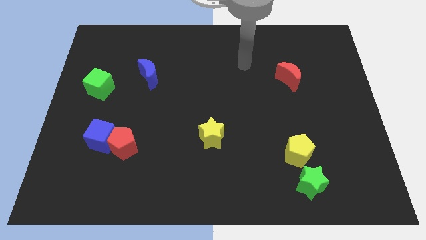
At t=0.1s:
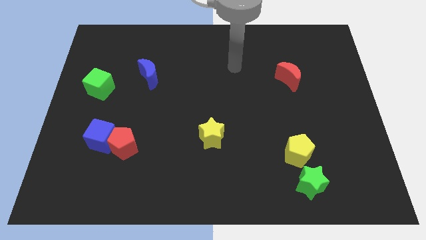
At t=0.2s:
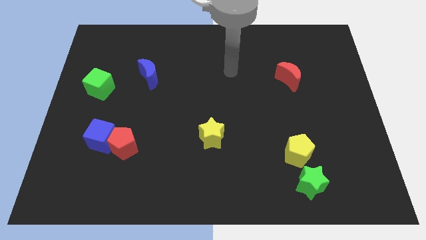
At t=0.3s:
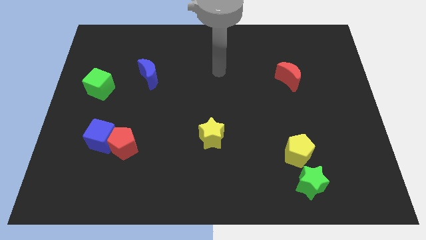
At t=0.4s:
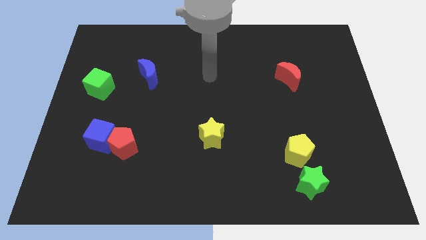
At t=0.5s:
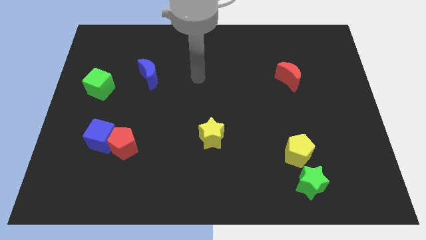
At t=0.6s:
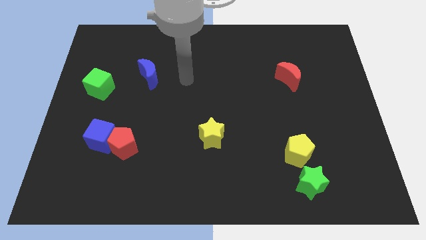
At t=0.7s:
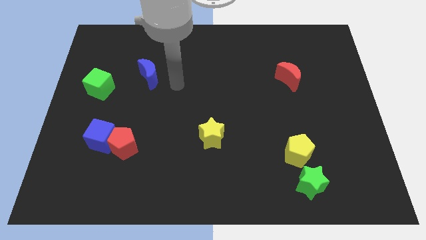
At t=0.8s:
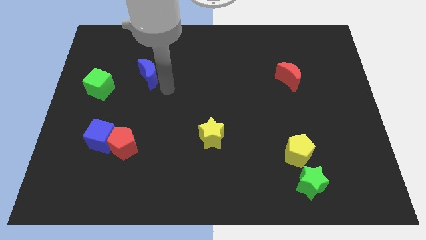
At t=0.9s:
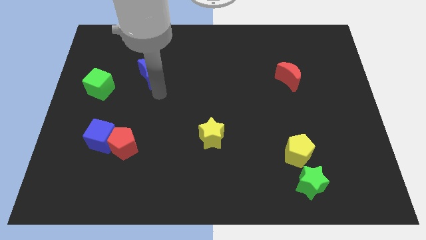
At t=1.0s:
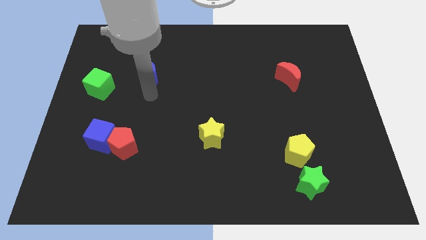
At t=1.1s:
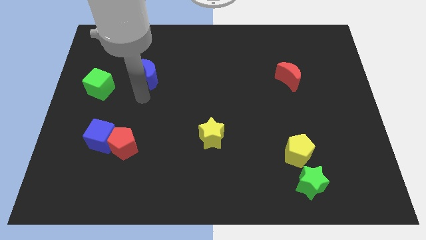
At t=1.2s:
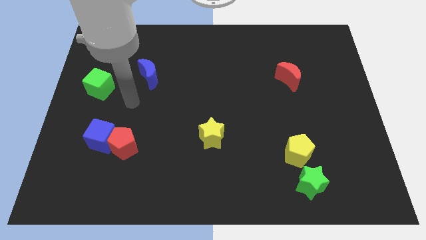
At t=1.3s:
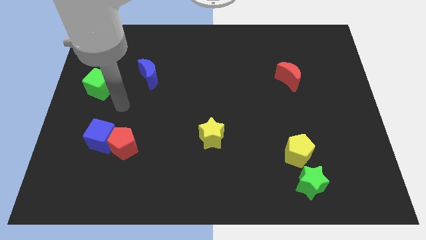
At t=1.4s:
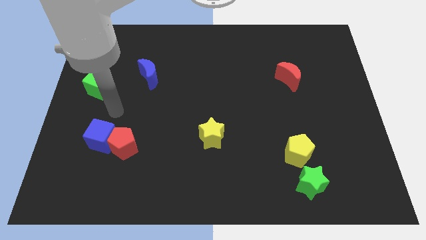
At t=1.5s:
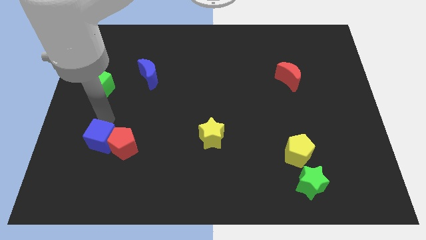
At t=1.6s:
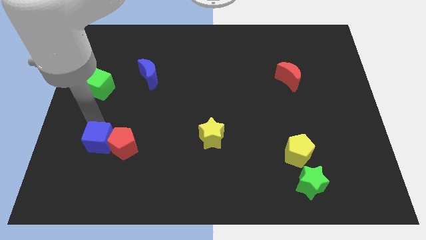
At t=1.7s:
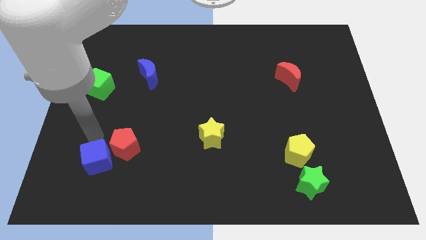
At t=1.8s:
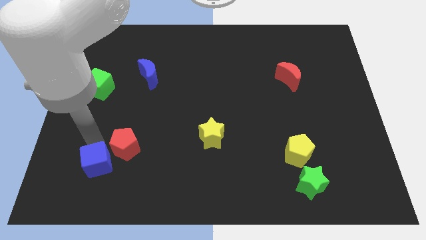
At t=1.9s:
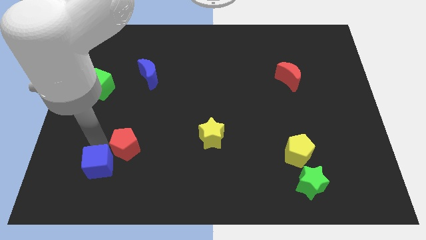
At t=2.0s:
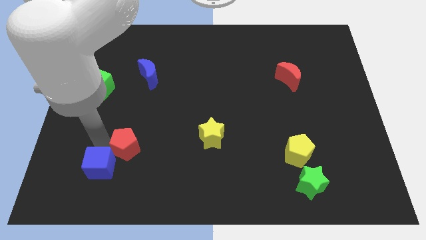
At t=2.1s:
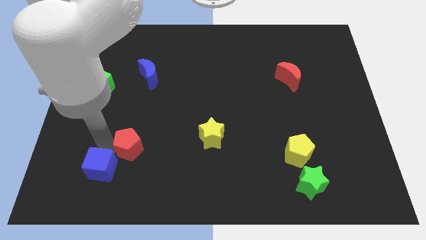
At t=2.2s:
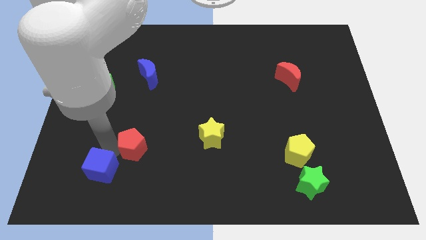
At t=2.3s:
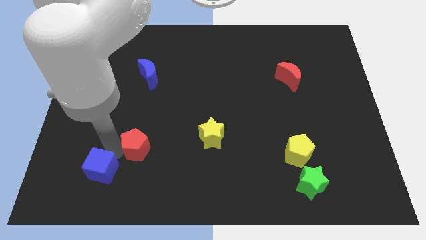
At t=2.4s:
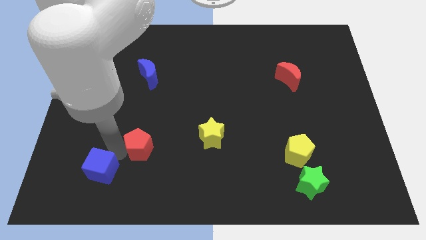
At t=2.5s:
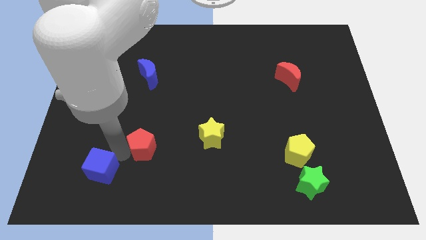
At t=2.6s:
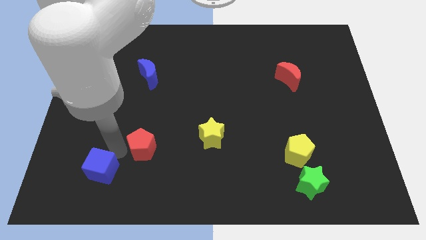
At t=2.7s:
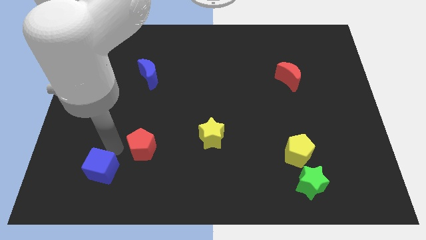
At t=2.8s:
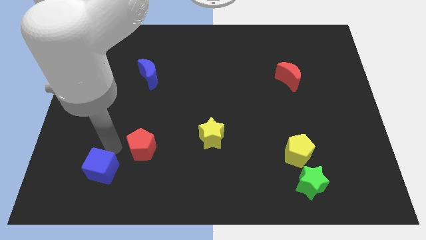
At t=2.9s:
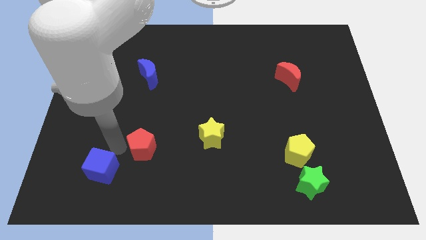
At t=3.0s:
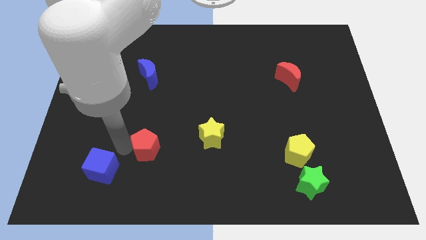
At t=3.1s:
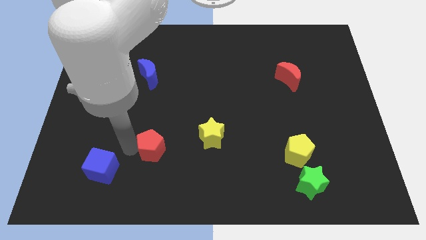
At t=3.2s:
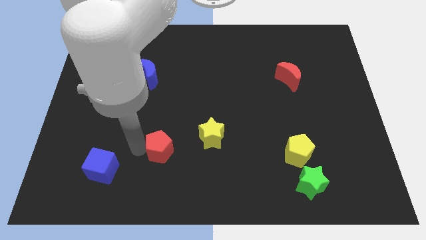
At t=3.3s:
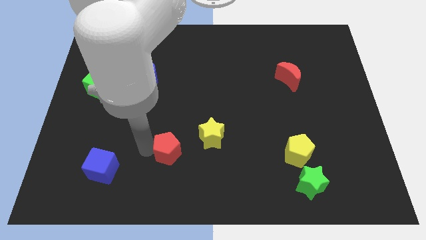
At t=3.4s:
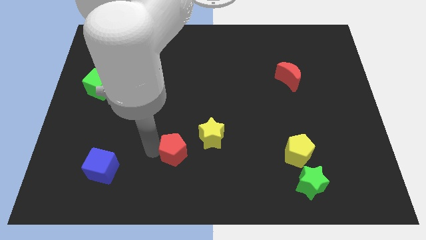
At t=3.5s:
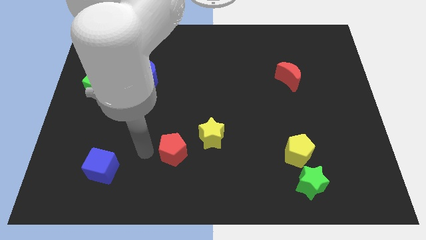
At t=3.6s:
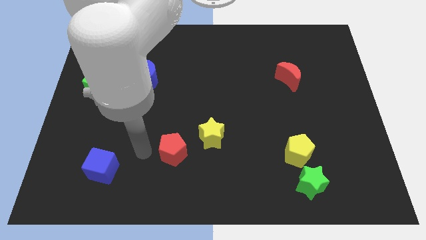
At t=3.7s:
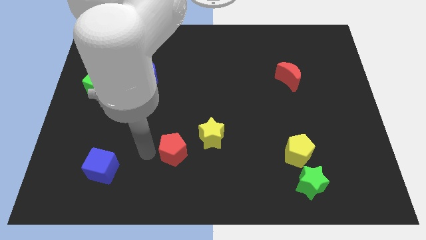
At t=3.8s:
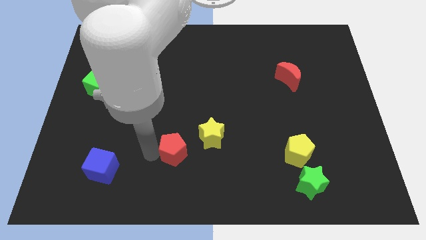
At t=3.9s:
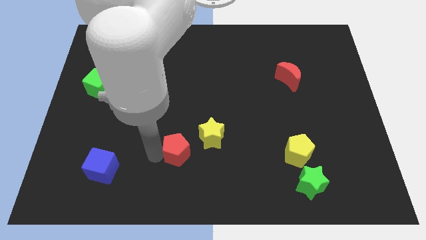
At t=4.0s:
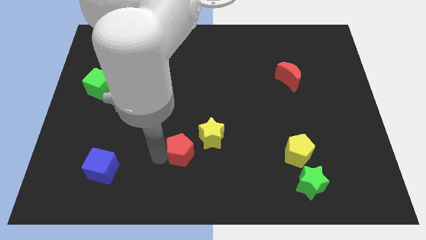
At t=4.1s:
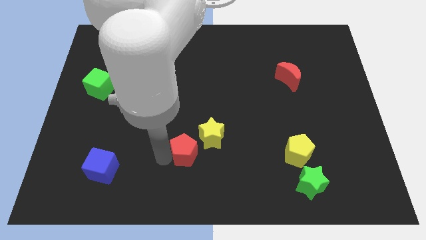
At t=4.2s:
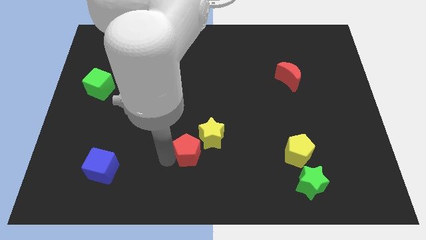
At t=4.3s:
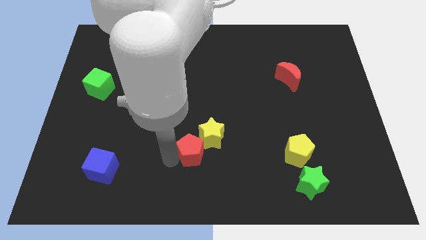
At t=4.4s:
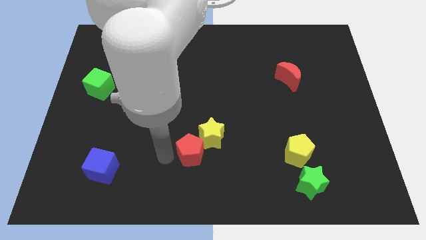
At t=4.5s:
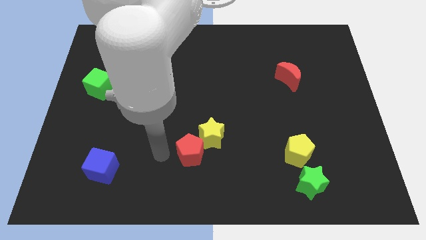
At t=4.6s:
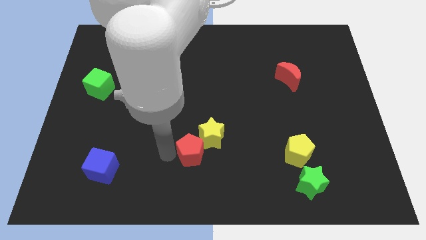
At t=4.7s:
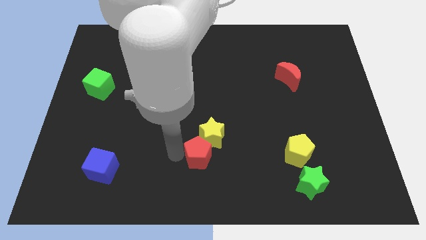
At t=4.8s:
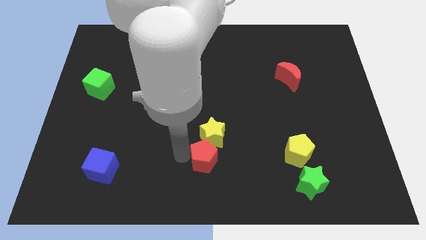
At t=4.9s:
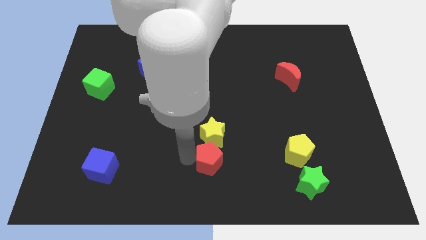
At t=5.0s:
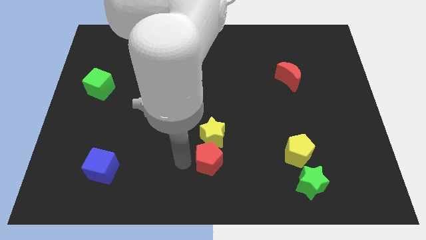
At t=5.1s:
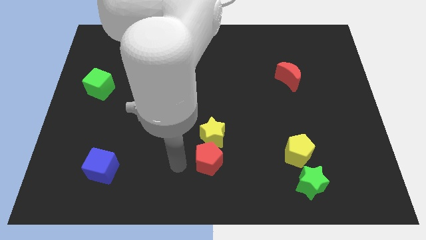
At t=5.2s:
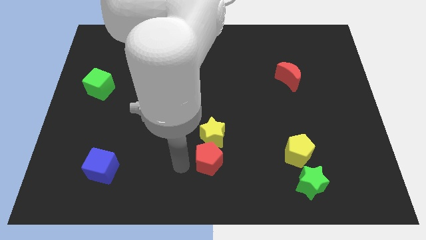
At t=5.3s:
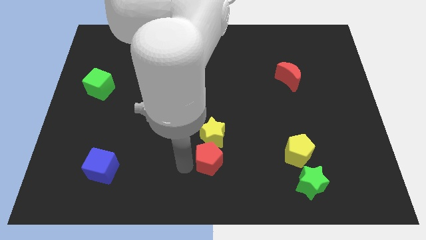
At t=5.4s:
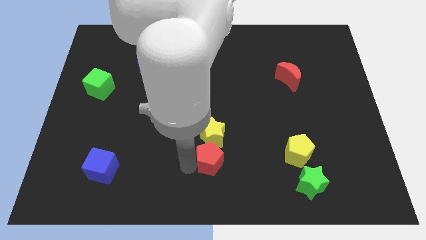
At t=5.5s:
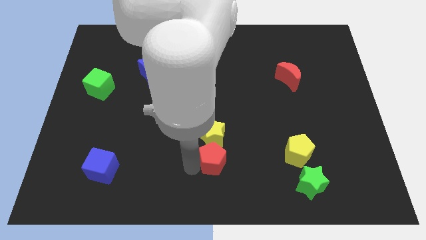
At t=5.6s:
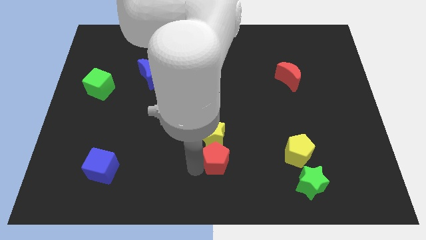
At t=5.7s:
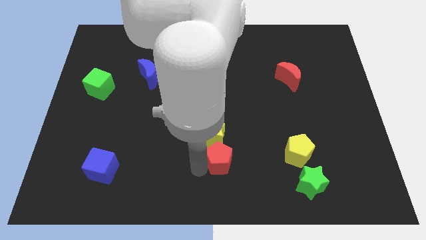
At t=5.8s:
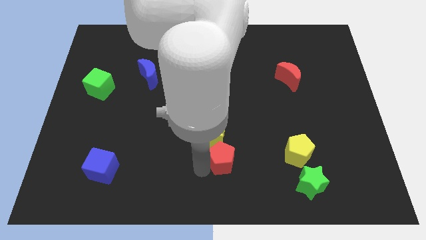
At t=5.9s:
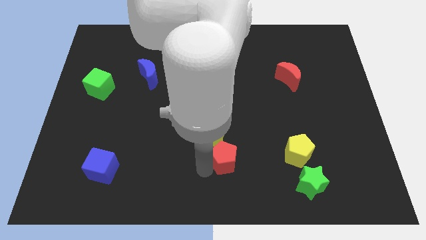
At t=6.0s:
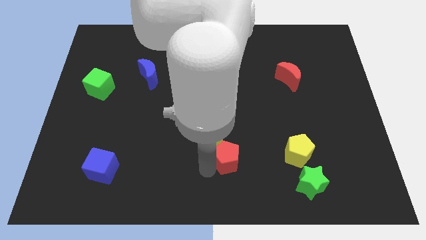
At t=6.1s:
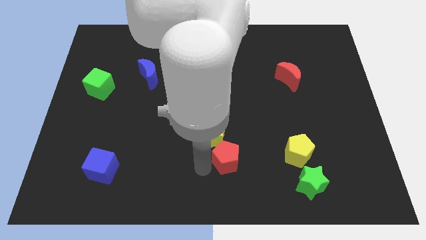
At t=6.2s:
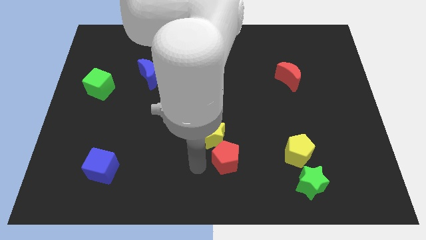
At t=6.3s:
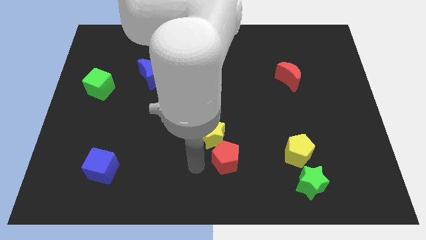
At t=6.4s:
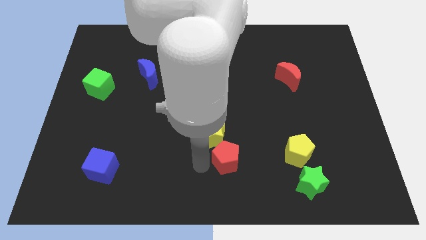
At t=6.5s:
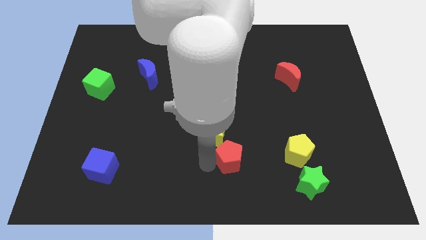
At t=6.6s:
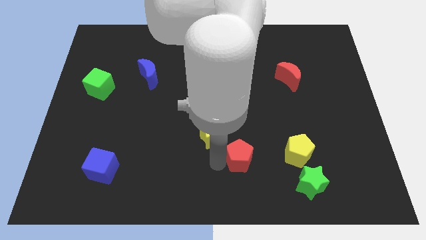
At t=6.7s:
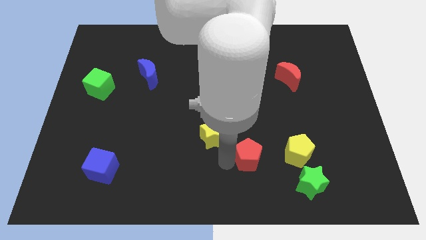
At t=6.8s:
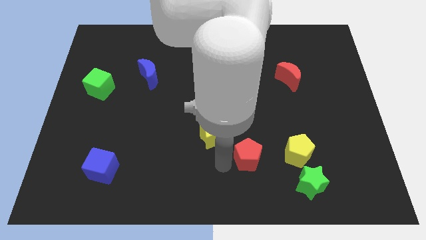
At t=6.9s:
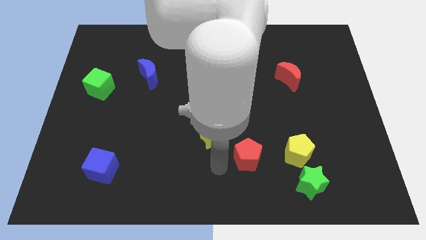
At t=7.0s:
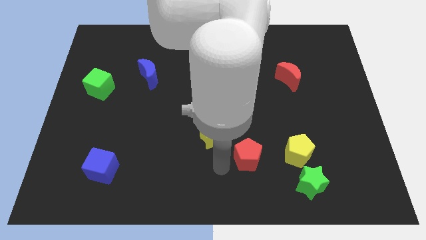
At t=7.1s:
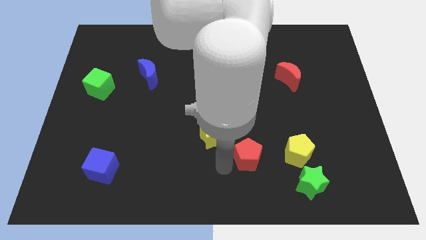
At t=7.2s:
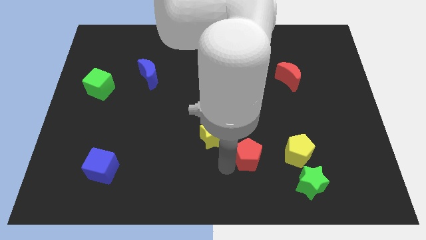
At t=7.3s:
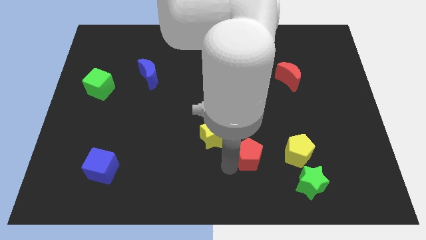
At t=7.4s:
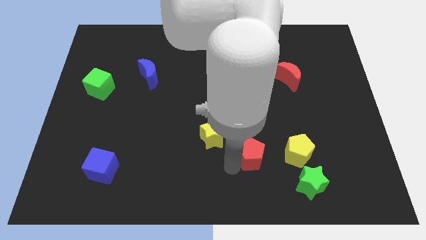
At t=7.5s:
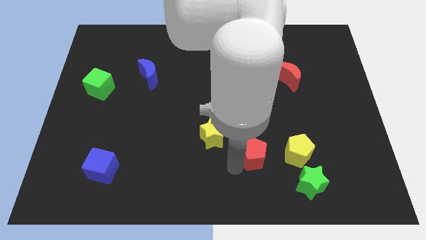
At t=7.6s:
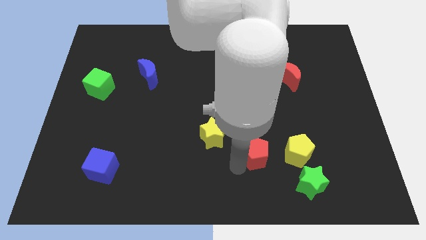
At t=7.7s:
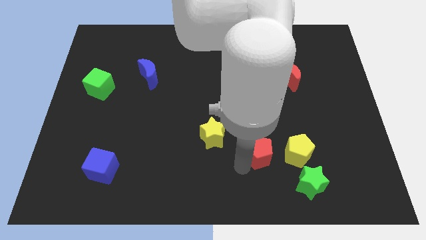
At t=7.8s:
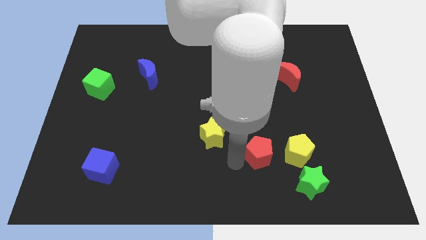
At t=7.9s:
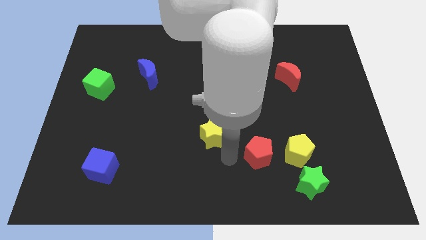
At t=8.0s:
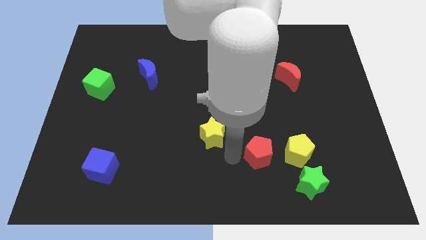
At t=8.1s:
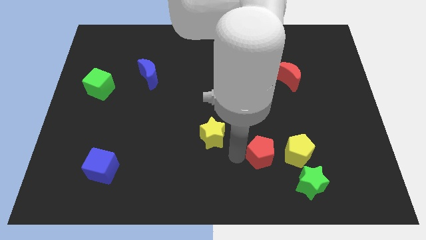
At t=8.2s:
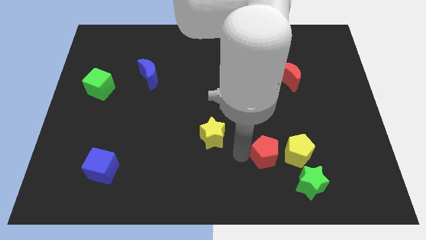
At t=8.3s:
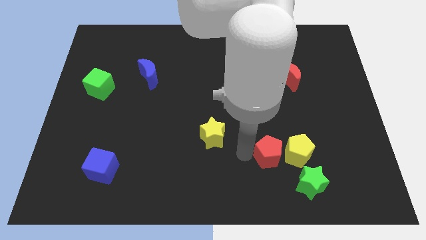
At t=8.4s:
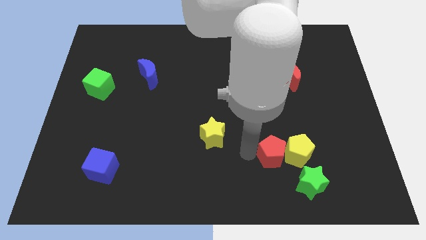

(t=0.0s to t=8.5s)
push the red pentagon next to the yellow pentagon

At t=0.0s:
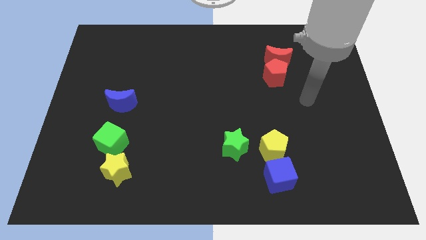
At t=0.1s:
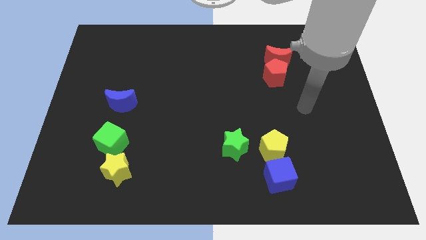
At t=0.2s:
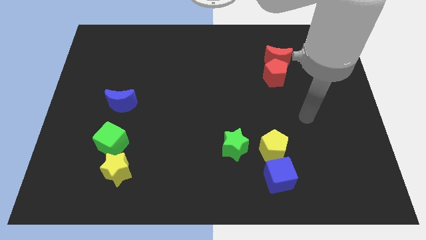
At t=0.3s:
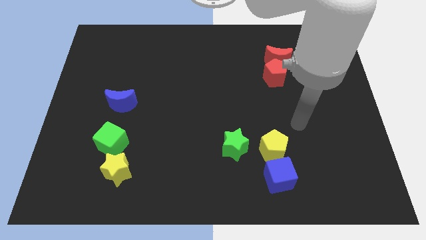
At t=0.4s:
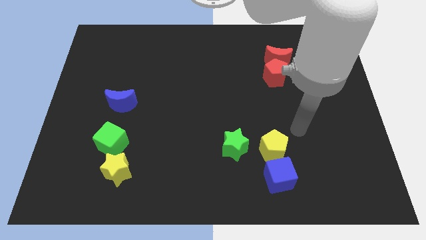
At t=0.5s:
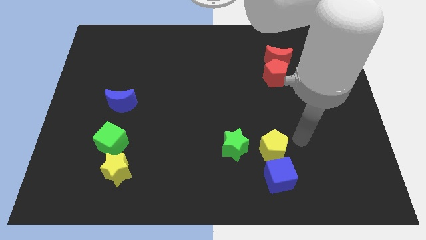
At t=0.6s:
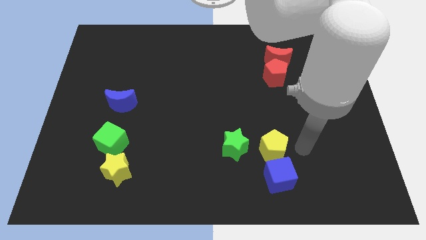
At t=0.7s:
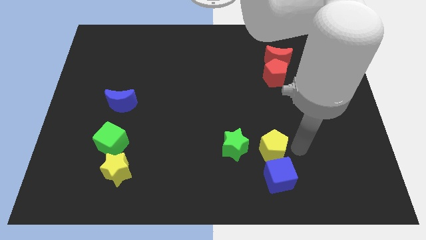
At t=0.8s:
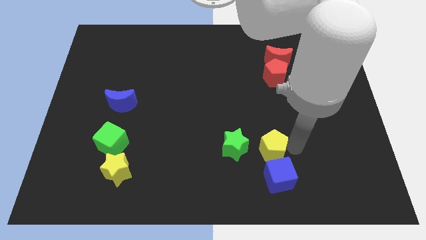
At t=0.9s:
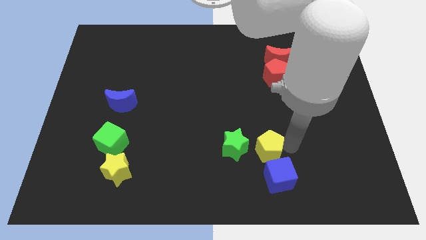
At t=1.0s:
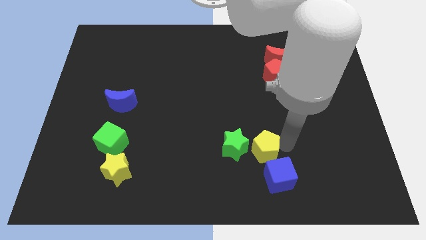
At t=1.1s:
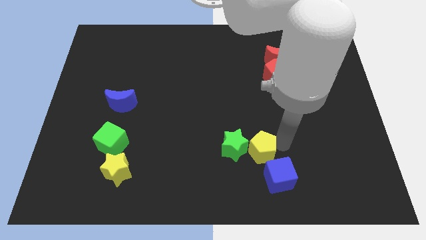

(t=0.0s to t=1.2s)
put the yellow pentagon next to the green star
